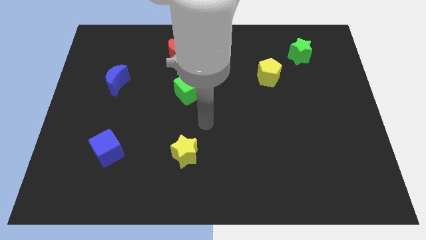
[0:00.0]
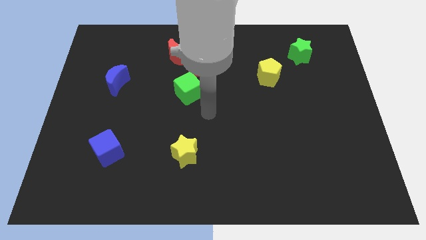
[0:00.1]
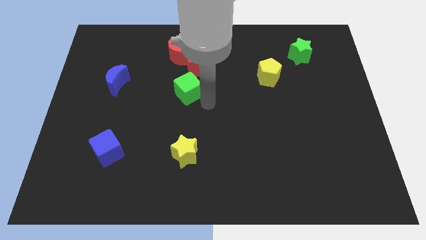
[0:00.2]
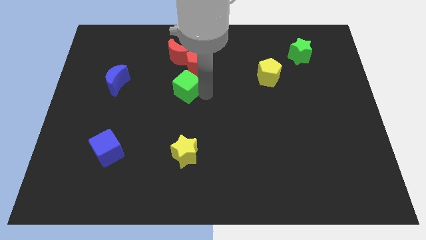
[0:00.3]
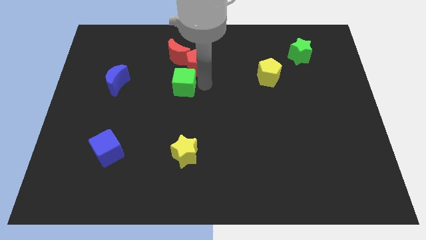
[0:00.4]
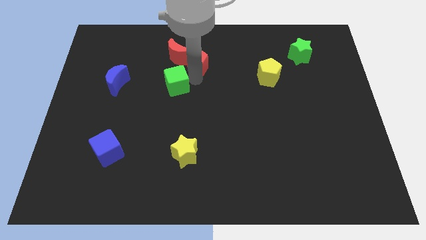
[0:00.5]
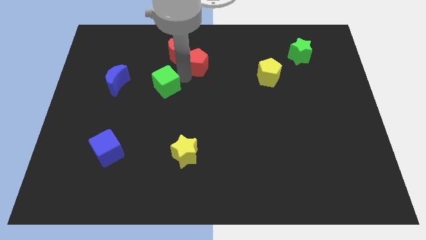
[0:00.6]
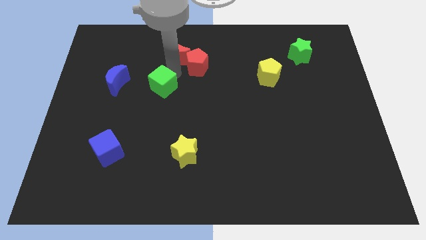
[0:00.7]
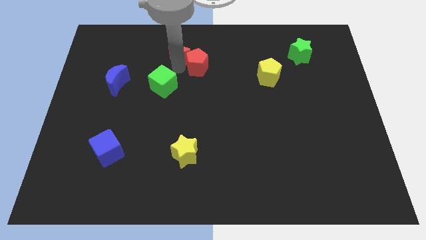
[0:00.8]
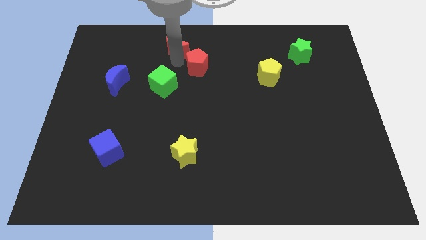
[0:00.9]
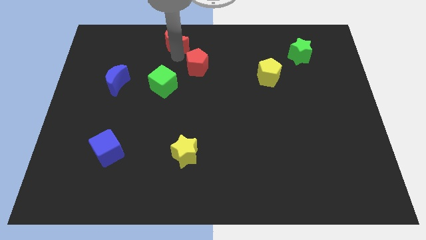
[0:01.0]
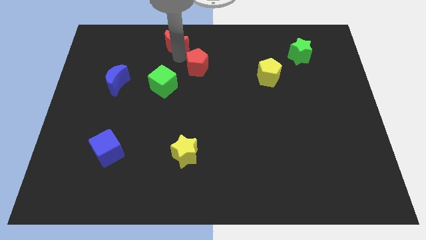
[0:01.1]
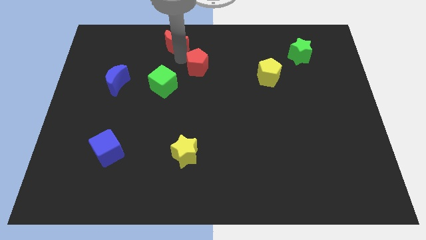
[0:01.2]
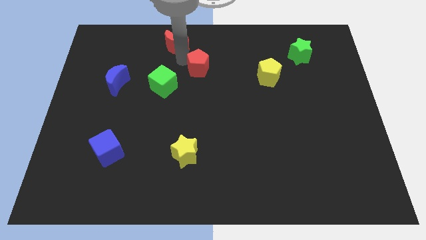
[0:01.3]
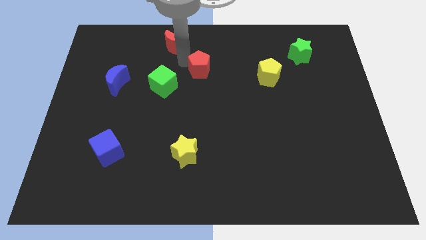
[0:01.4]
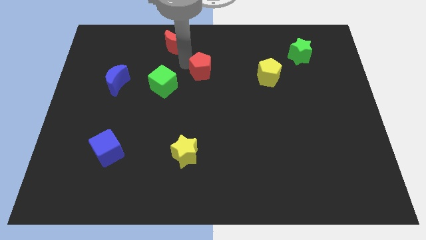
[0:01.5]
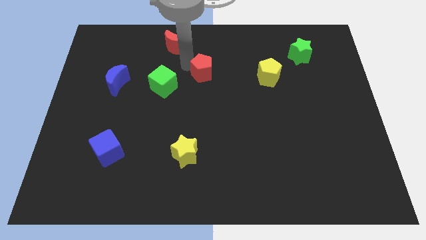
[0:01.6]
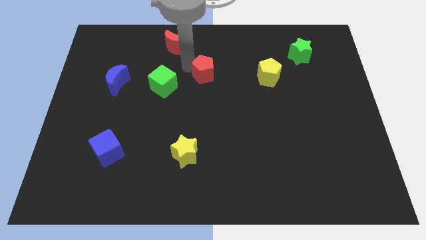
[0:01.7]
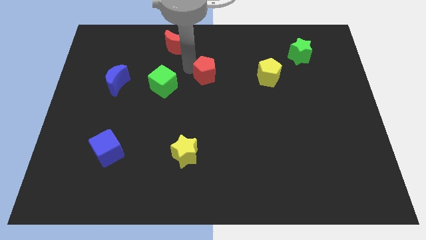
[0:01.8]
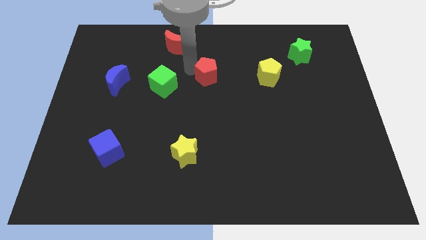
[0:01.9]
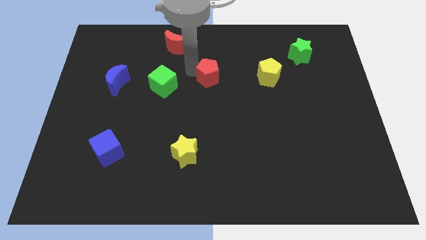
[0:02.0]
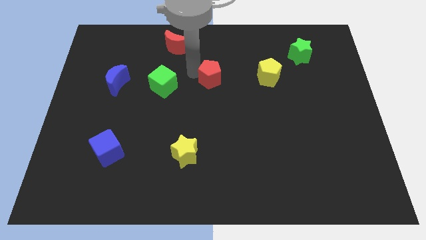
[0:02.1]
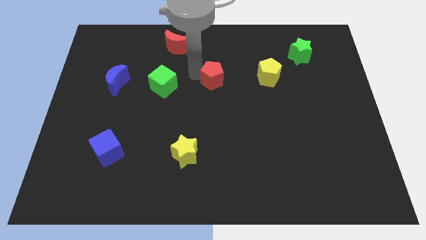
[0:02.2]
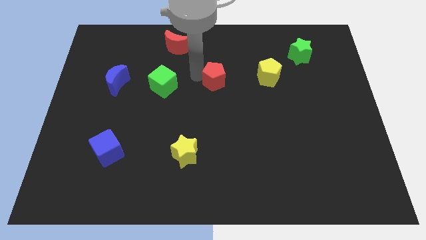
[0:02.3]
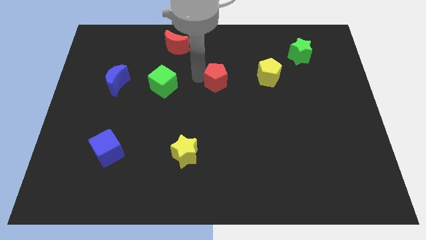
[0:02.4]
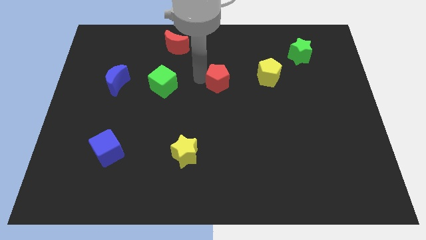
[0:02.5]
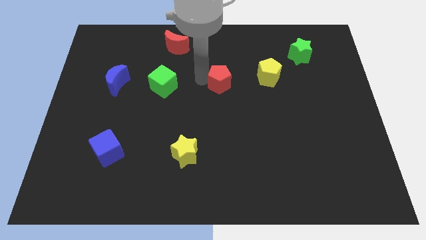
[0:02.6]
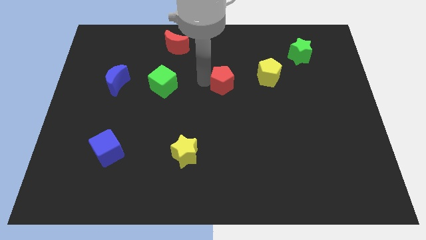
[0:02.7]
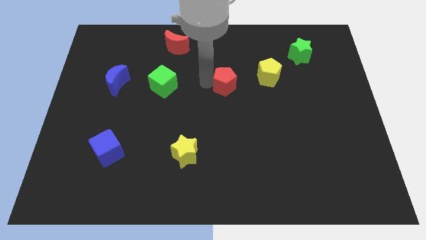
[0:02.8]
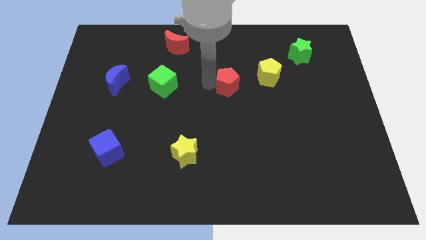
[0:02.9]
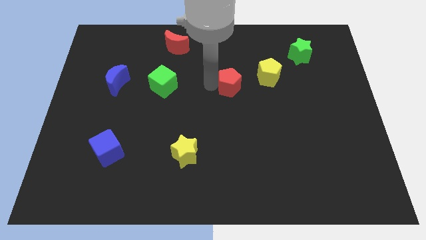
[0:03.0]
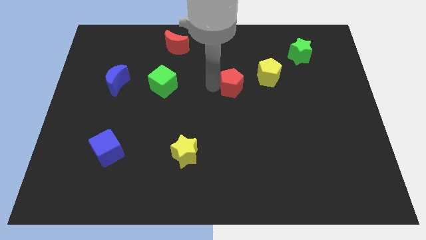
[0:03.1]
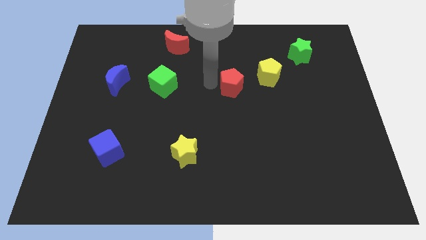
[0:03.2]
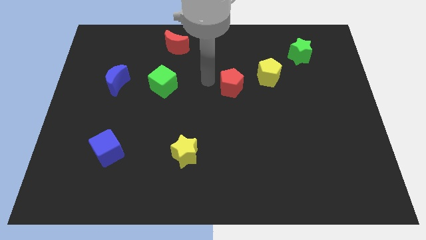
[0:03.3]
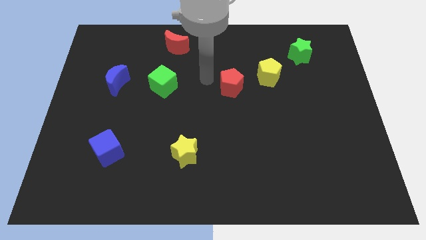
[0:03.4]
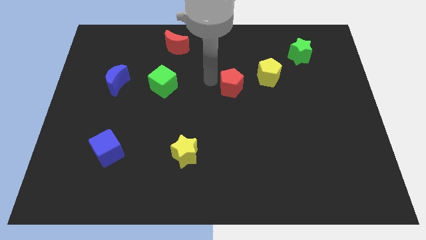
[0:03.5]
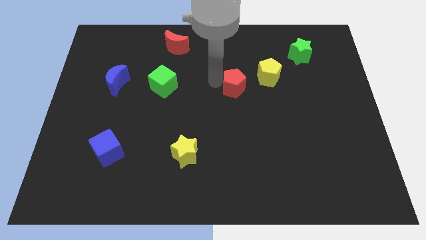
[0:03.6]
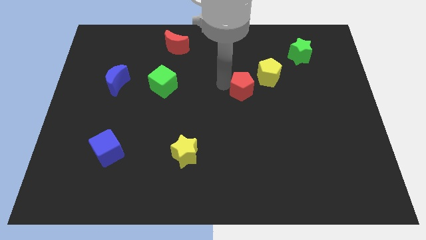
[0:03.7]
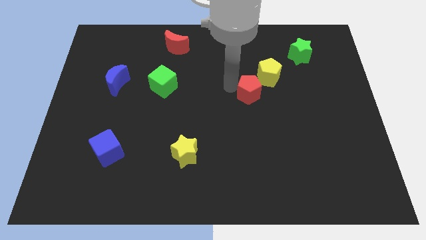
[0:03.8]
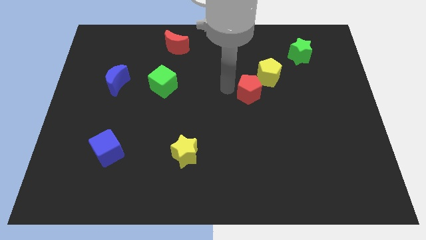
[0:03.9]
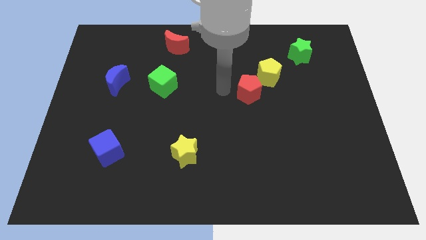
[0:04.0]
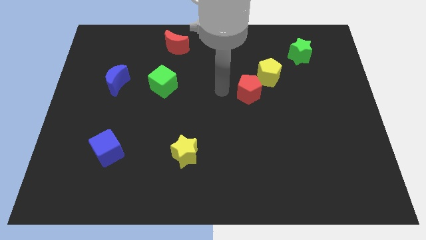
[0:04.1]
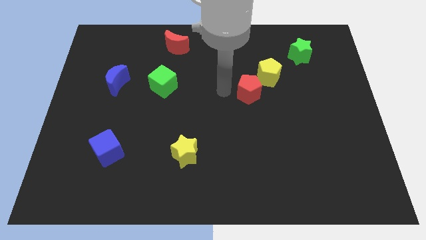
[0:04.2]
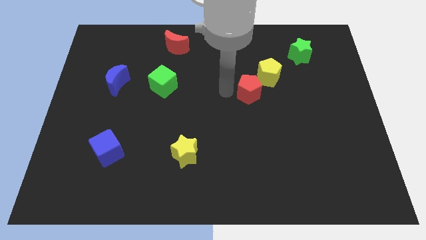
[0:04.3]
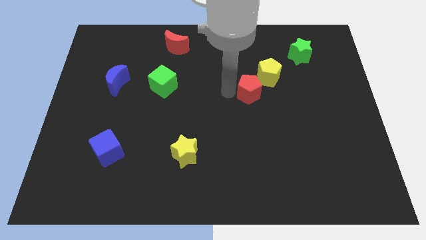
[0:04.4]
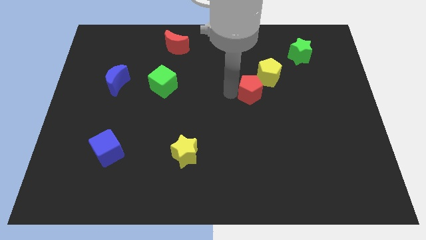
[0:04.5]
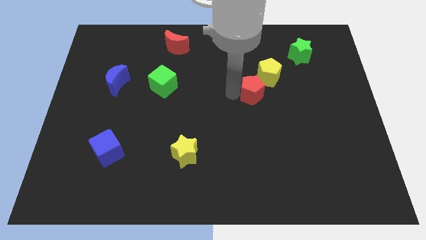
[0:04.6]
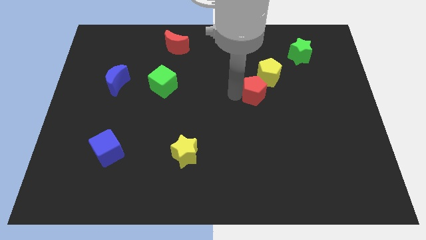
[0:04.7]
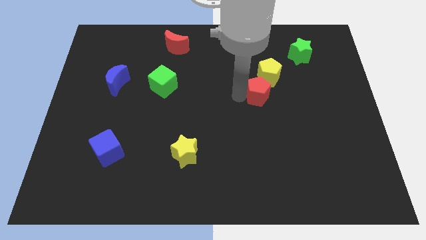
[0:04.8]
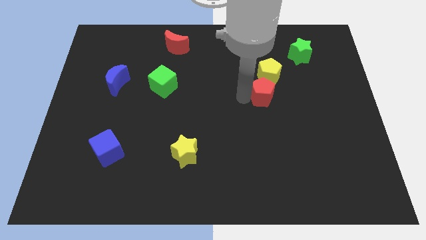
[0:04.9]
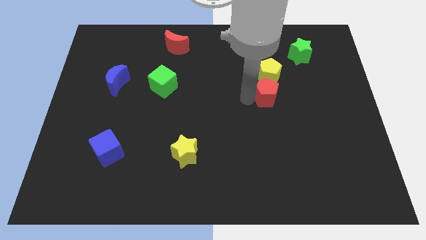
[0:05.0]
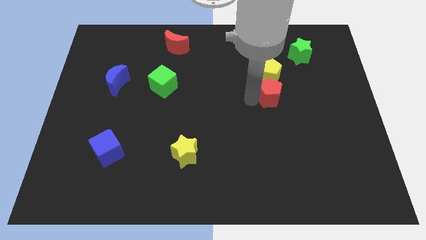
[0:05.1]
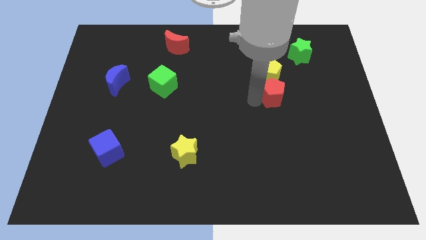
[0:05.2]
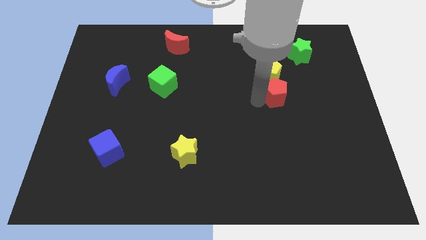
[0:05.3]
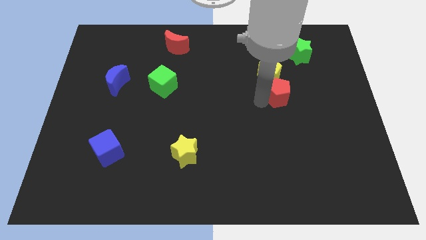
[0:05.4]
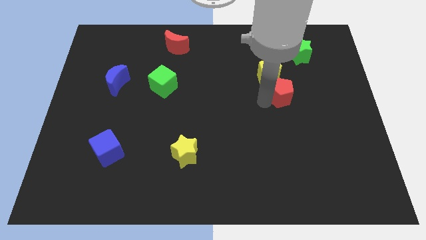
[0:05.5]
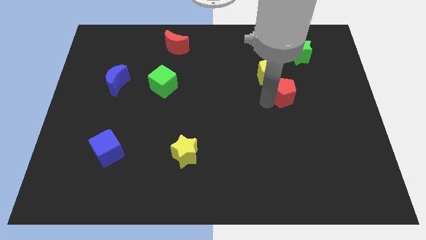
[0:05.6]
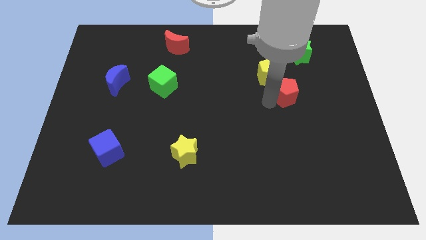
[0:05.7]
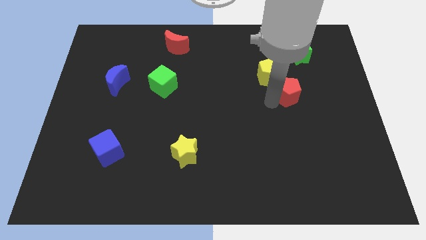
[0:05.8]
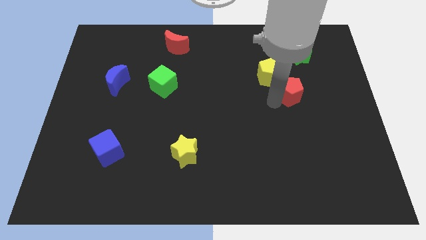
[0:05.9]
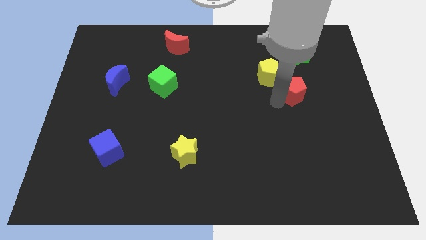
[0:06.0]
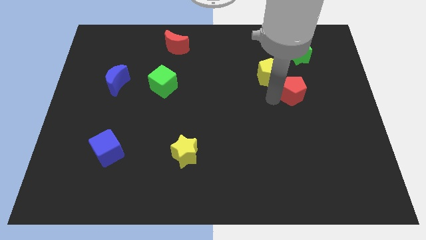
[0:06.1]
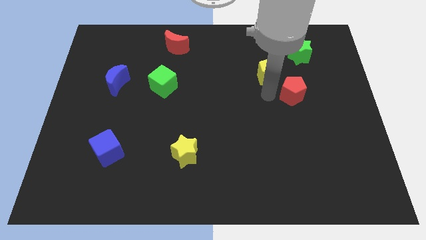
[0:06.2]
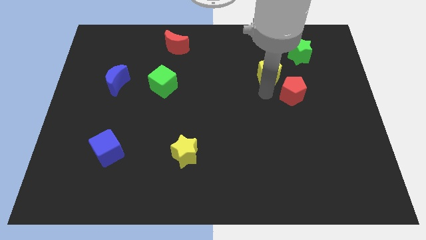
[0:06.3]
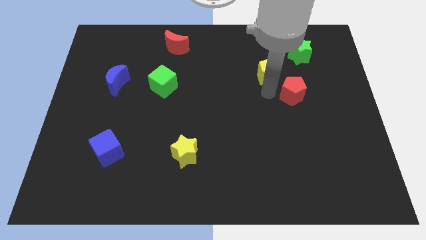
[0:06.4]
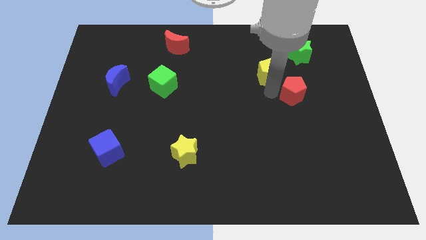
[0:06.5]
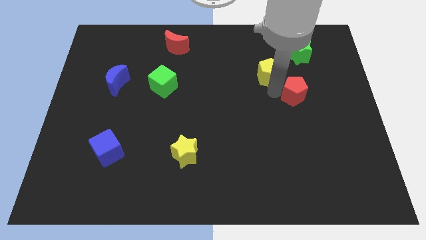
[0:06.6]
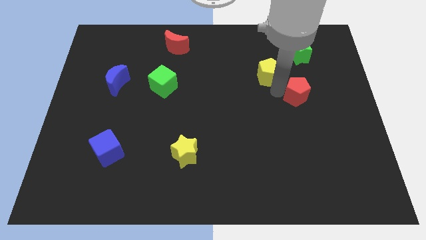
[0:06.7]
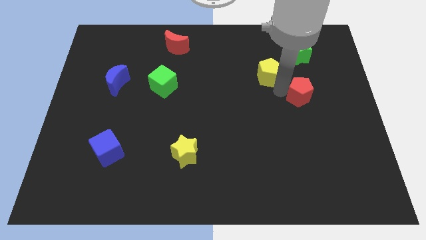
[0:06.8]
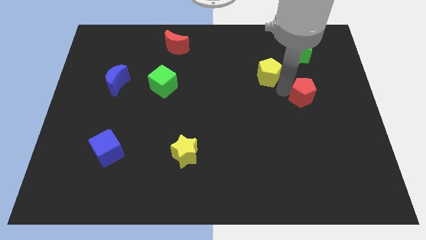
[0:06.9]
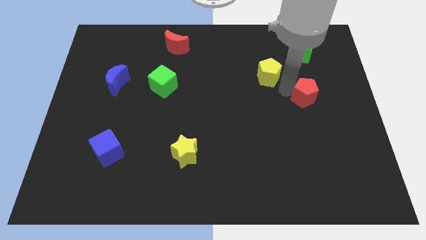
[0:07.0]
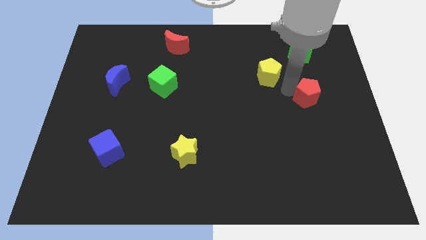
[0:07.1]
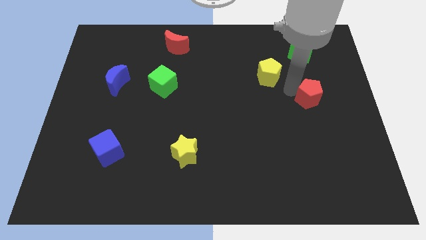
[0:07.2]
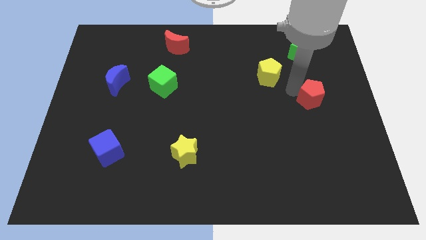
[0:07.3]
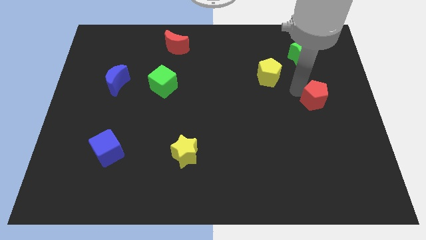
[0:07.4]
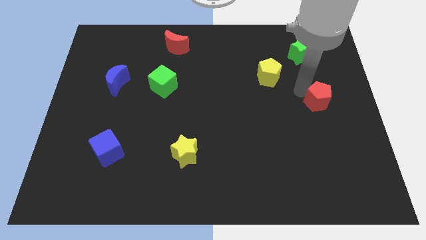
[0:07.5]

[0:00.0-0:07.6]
move the red pentagon to the center right
